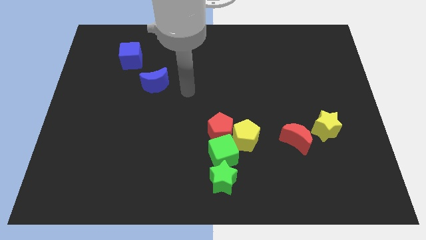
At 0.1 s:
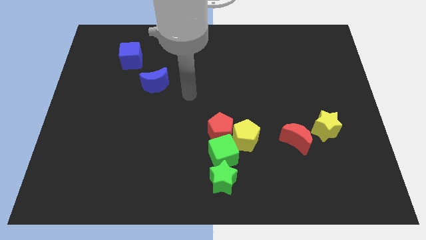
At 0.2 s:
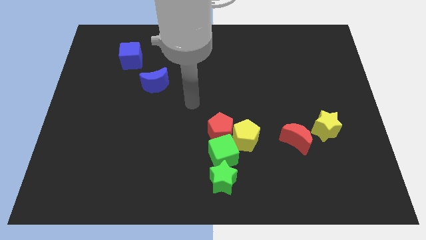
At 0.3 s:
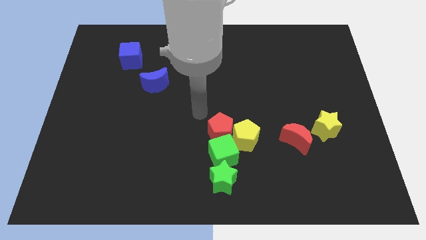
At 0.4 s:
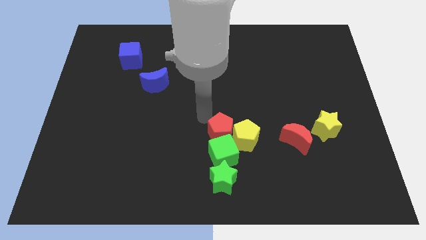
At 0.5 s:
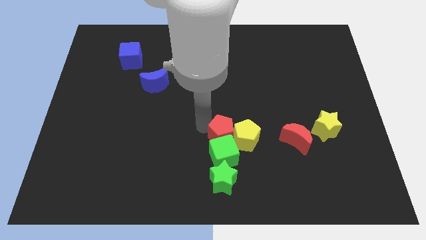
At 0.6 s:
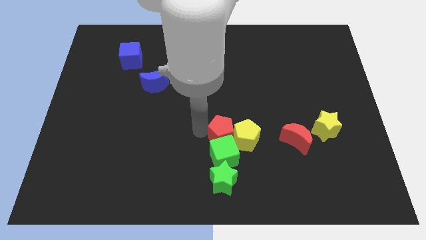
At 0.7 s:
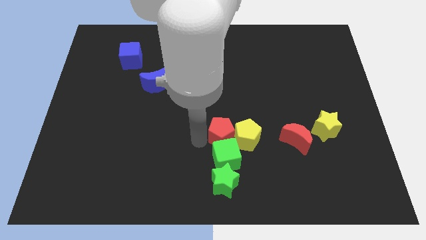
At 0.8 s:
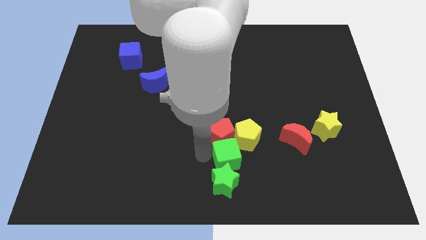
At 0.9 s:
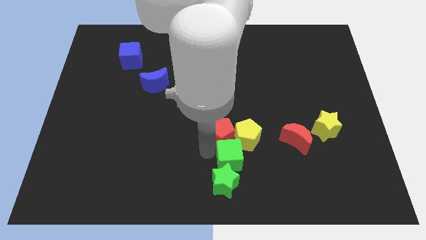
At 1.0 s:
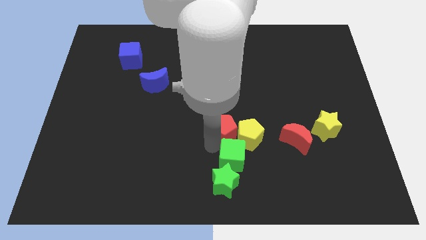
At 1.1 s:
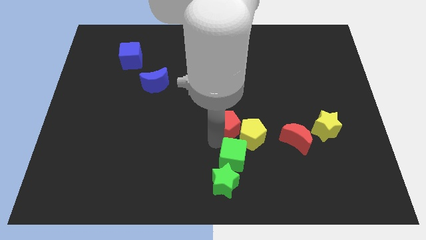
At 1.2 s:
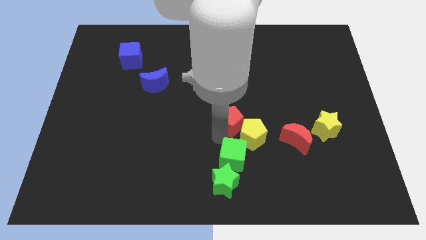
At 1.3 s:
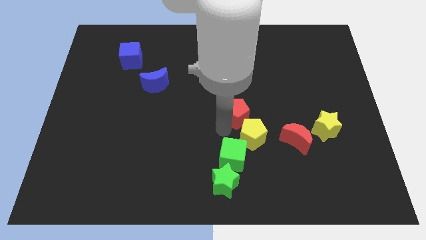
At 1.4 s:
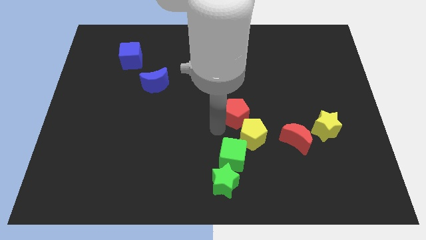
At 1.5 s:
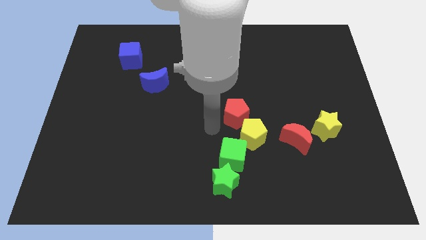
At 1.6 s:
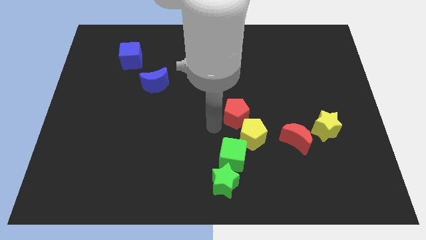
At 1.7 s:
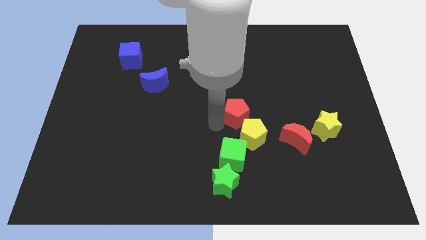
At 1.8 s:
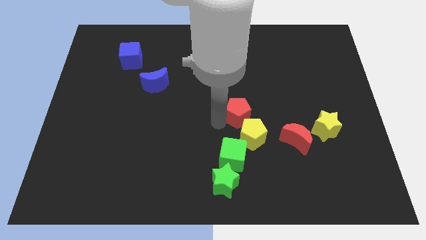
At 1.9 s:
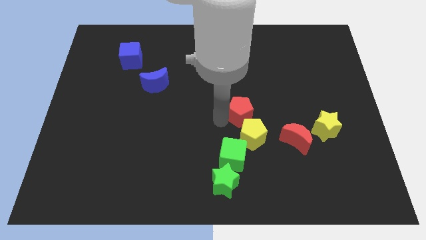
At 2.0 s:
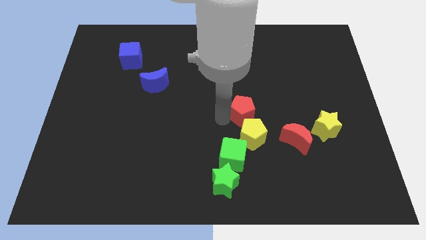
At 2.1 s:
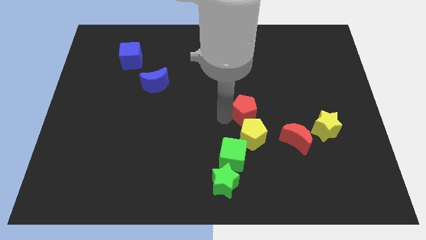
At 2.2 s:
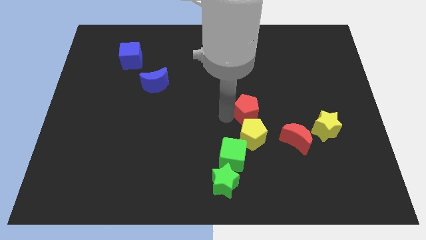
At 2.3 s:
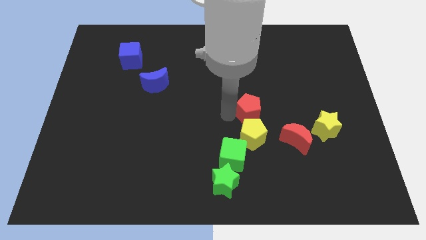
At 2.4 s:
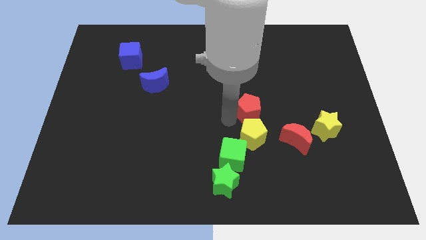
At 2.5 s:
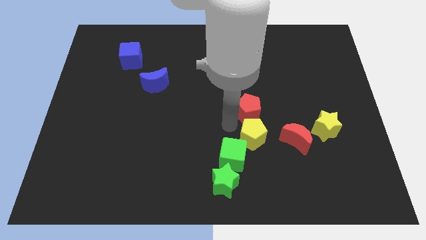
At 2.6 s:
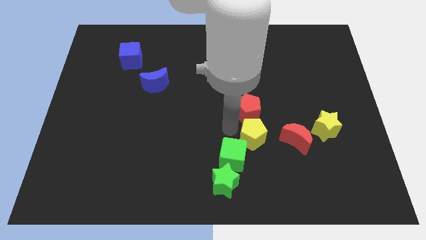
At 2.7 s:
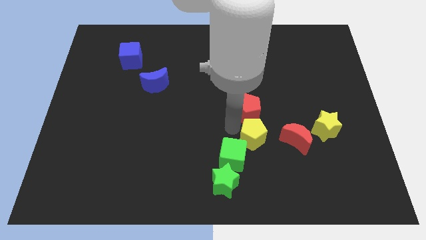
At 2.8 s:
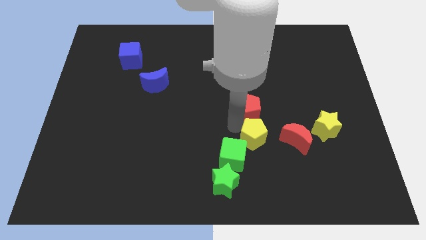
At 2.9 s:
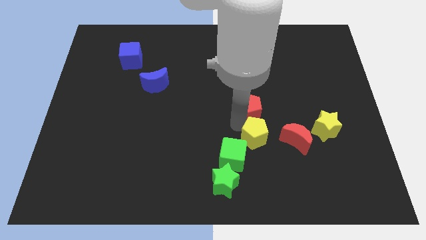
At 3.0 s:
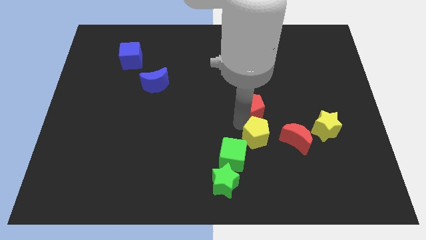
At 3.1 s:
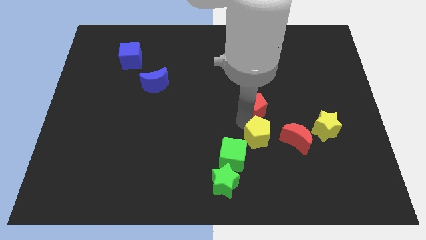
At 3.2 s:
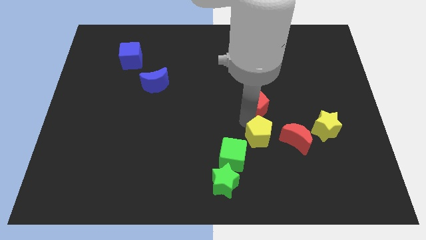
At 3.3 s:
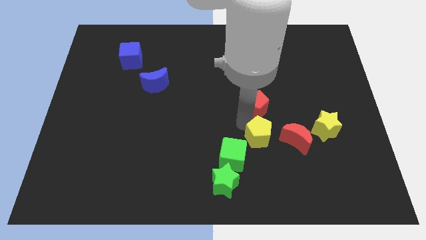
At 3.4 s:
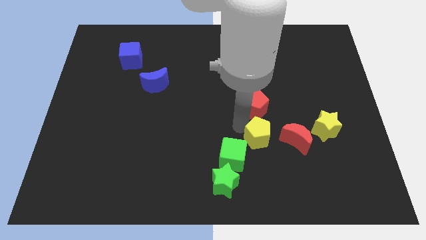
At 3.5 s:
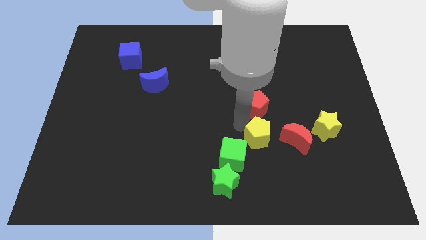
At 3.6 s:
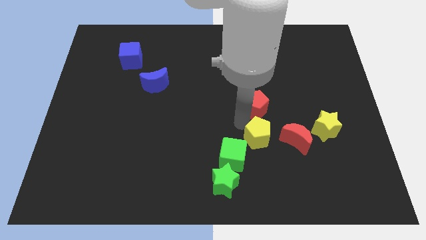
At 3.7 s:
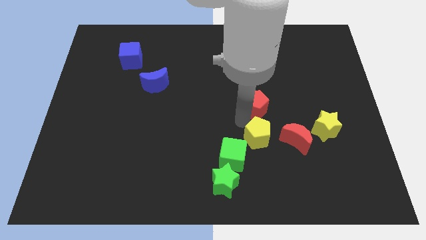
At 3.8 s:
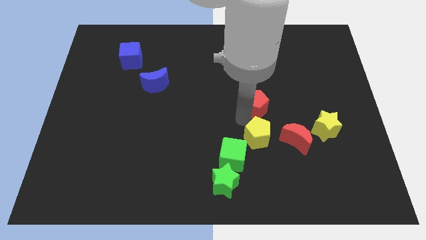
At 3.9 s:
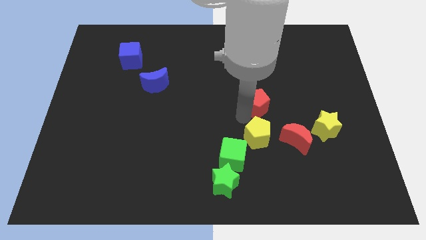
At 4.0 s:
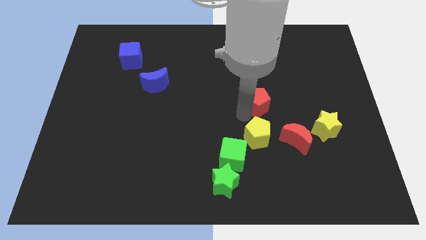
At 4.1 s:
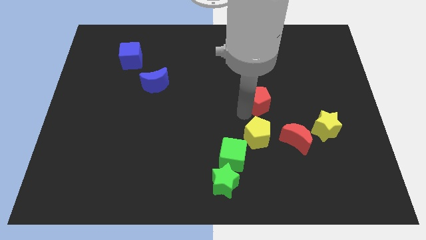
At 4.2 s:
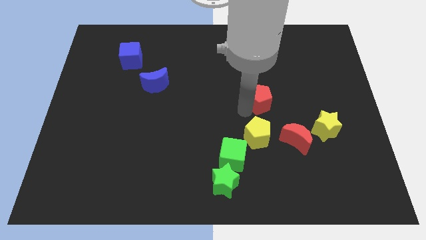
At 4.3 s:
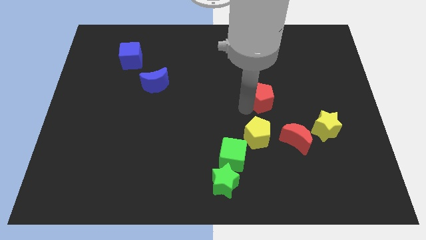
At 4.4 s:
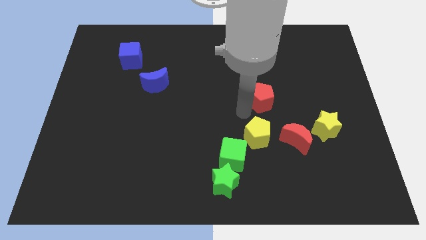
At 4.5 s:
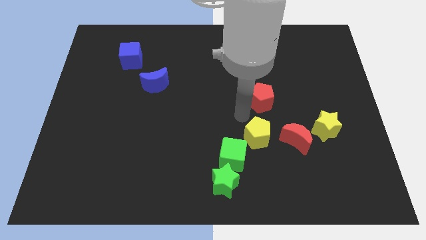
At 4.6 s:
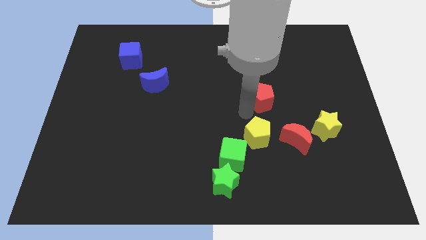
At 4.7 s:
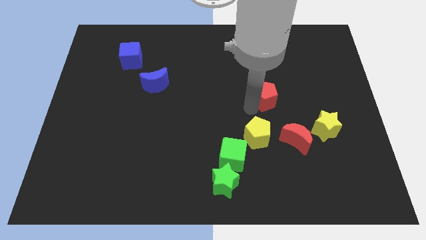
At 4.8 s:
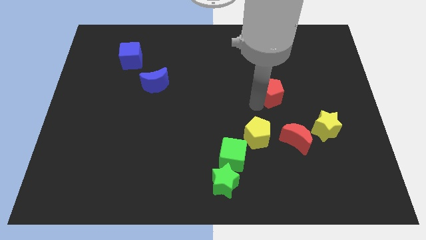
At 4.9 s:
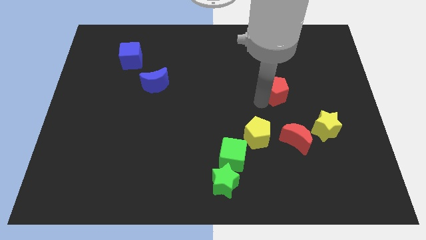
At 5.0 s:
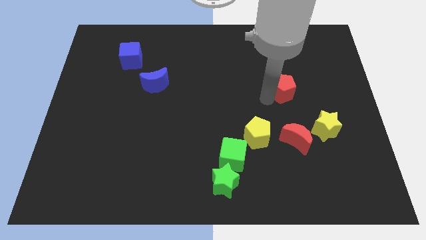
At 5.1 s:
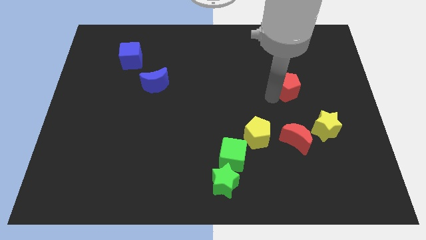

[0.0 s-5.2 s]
move the red pentagon up and then to the right

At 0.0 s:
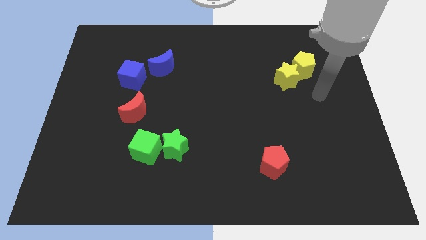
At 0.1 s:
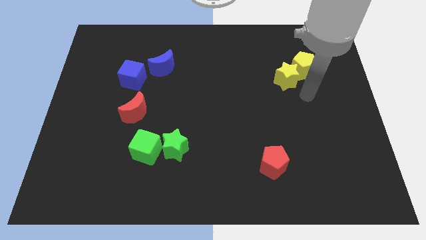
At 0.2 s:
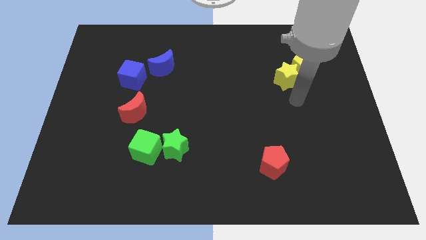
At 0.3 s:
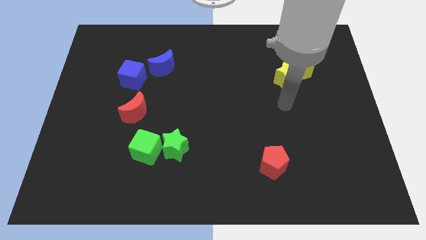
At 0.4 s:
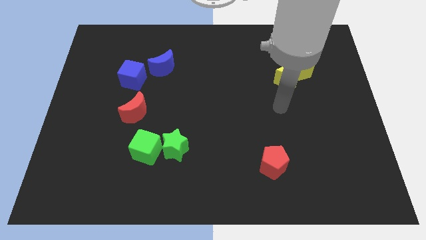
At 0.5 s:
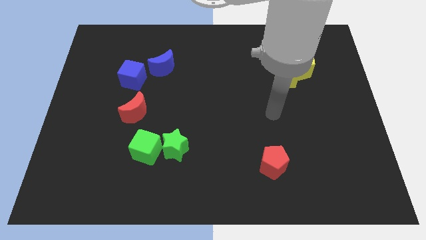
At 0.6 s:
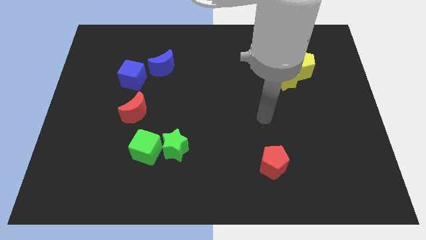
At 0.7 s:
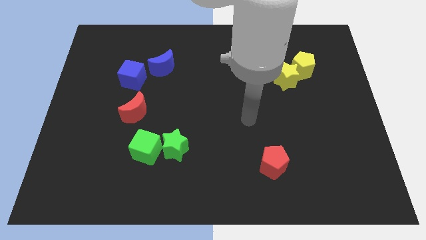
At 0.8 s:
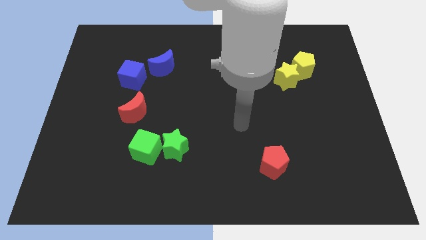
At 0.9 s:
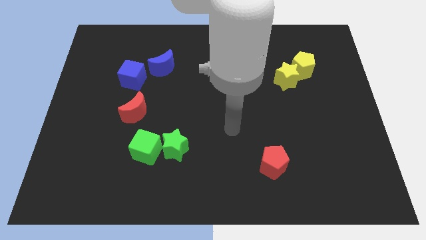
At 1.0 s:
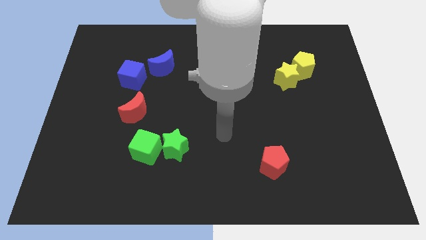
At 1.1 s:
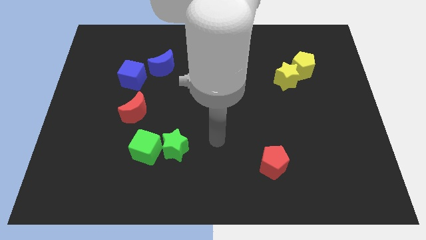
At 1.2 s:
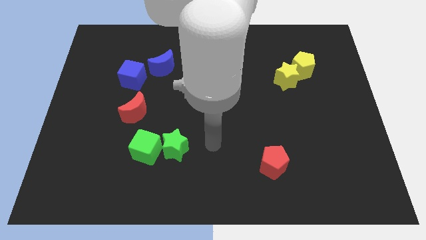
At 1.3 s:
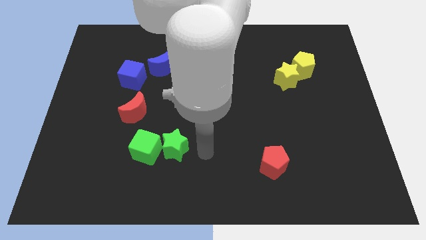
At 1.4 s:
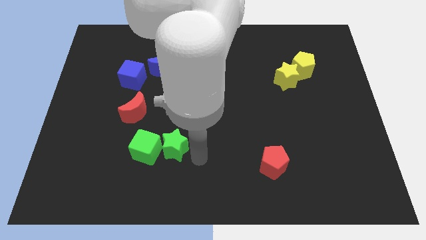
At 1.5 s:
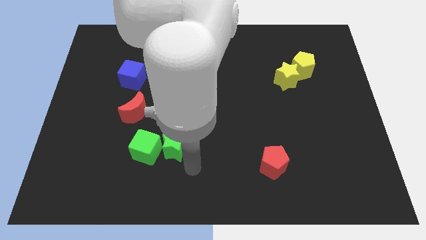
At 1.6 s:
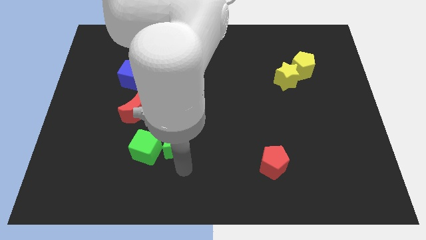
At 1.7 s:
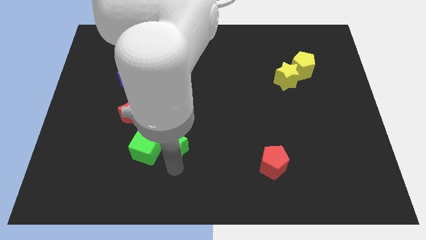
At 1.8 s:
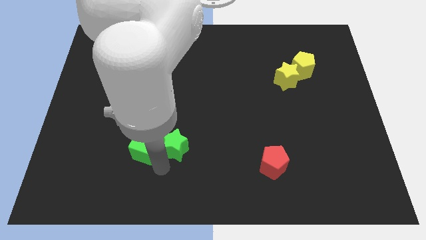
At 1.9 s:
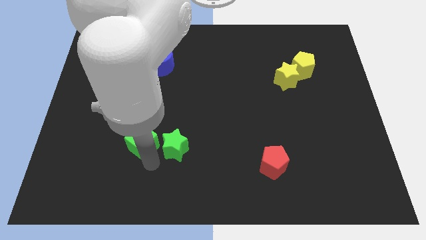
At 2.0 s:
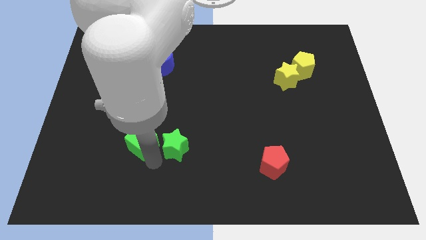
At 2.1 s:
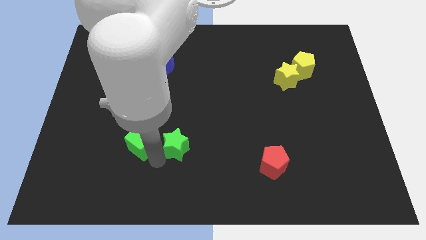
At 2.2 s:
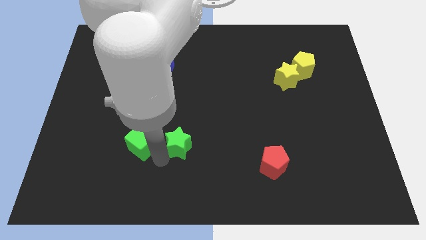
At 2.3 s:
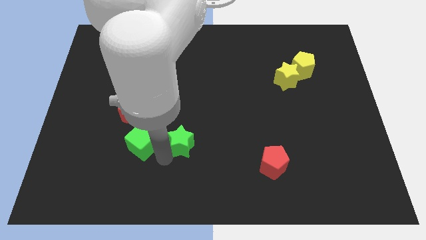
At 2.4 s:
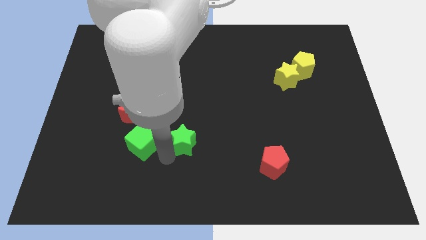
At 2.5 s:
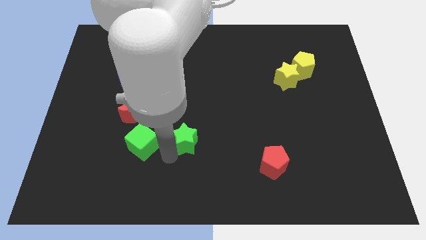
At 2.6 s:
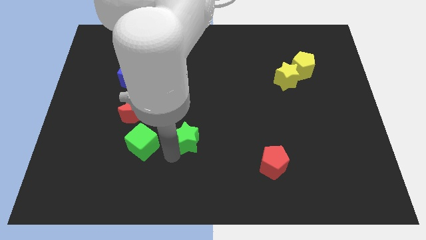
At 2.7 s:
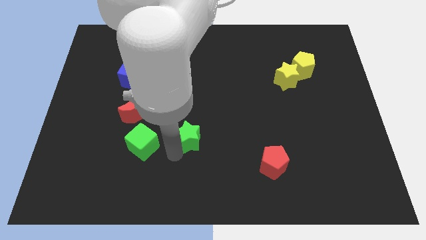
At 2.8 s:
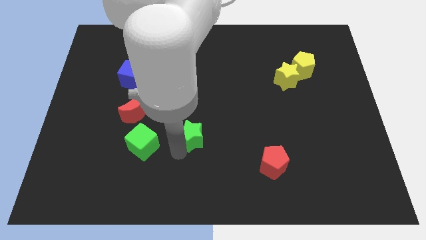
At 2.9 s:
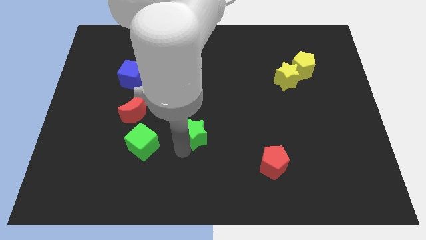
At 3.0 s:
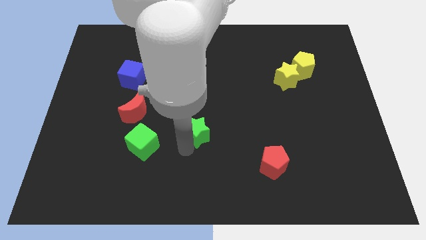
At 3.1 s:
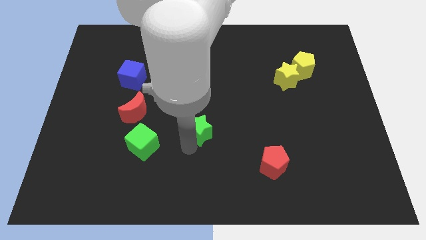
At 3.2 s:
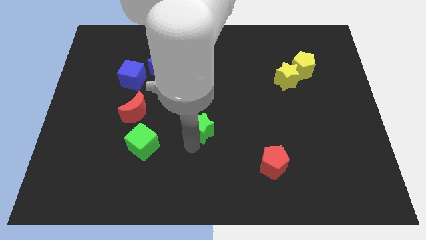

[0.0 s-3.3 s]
move the green star a little bit up and right diagonally
